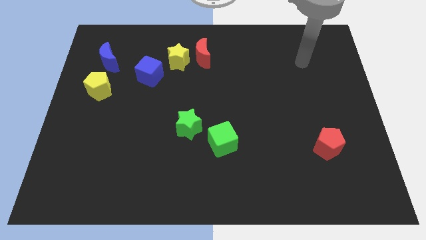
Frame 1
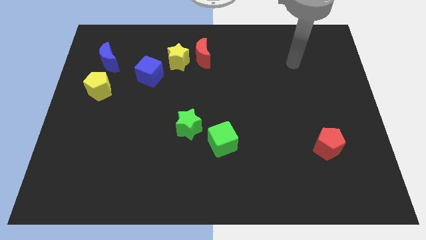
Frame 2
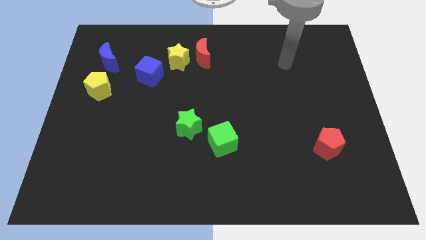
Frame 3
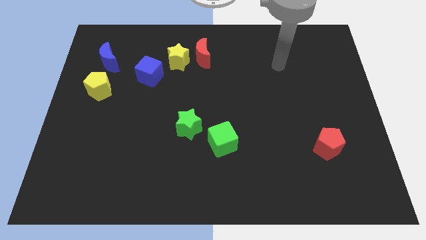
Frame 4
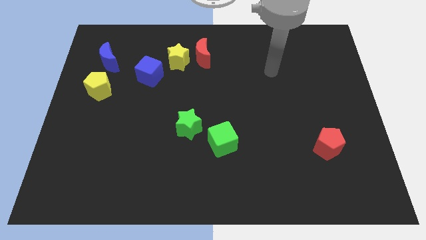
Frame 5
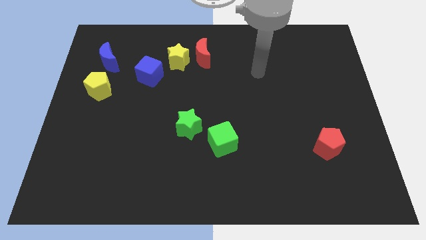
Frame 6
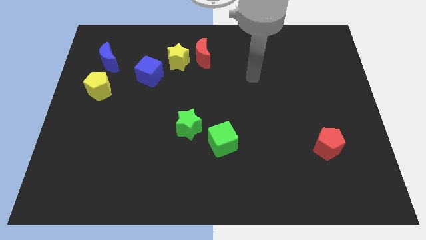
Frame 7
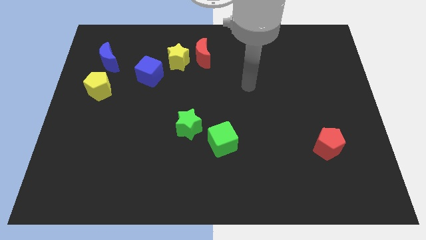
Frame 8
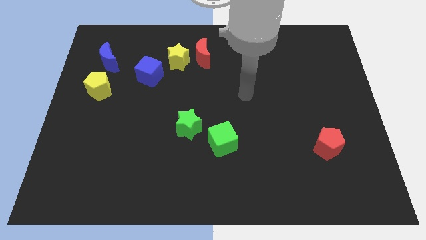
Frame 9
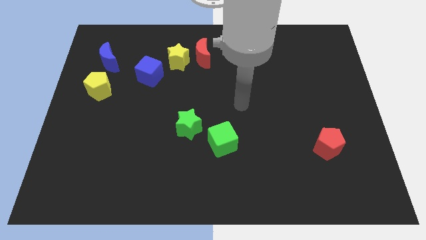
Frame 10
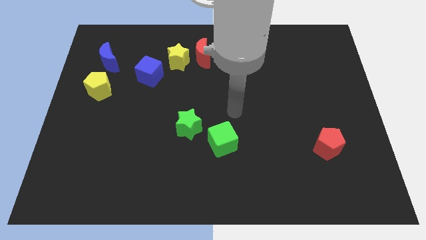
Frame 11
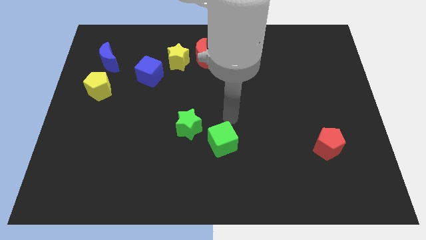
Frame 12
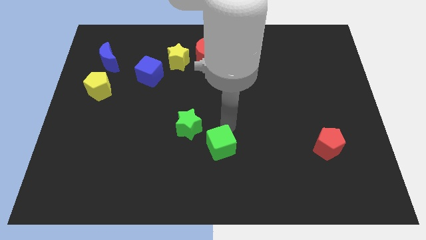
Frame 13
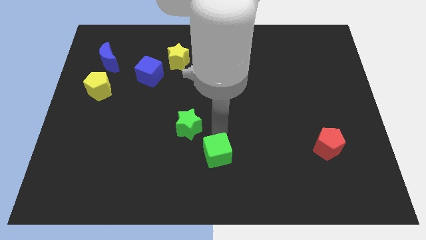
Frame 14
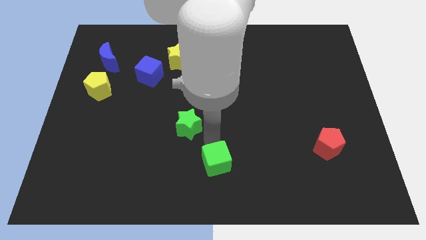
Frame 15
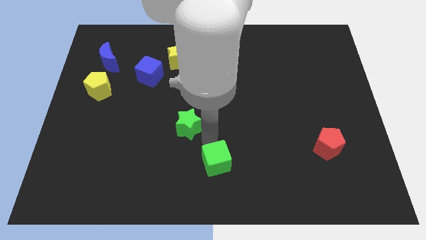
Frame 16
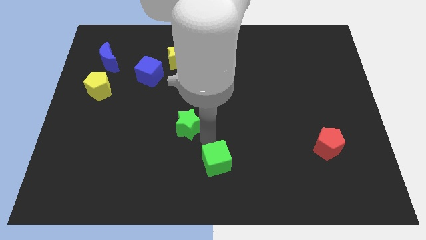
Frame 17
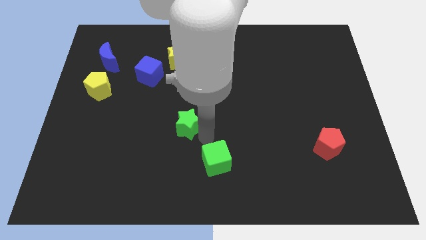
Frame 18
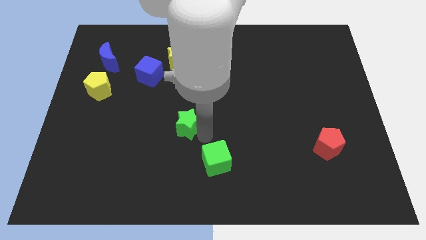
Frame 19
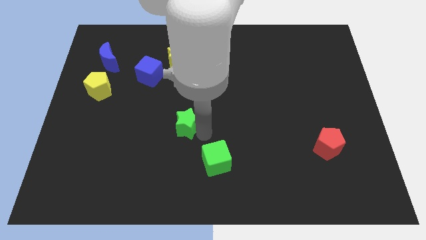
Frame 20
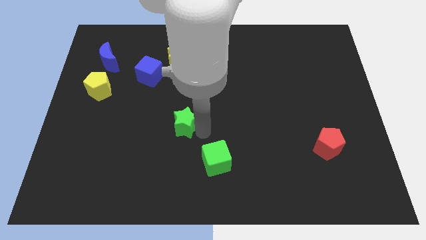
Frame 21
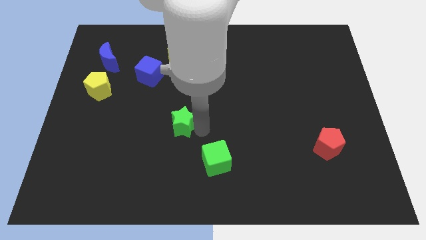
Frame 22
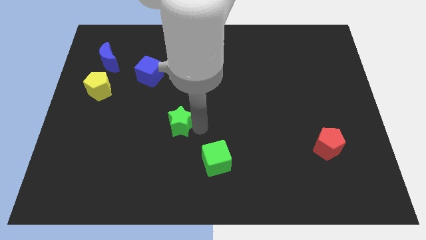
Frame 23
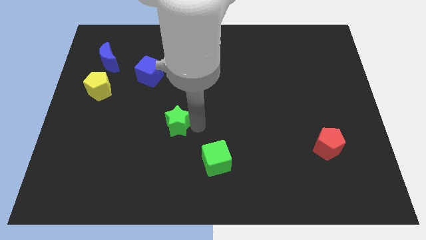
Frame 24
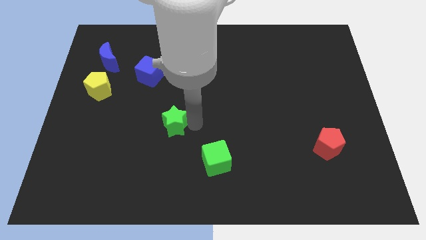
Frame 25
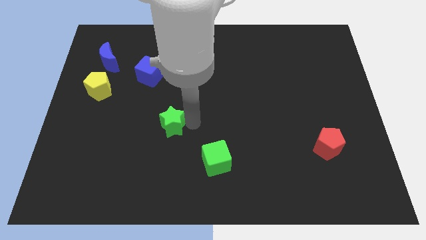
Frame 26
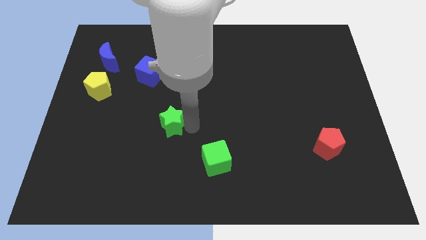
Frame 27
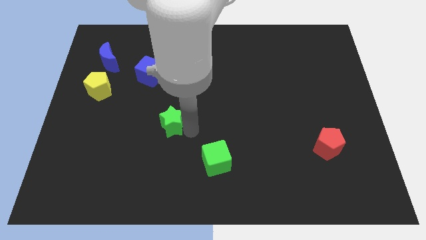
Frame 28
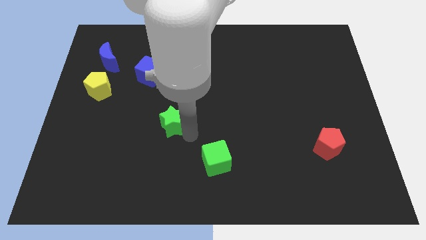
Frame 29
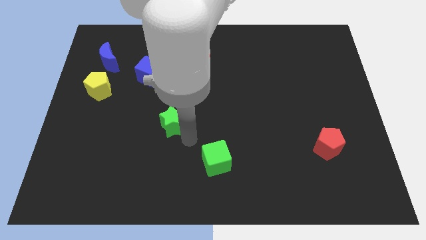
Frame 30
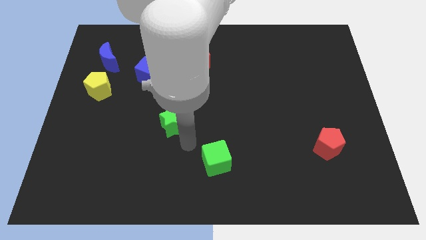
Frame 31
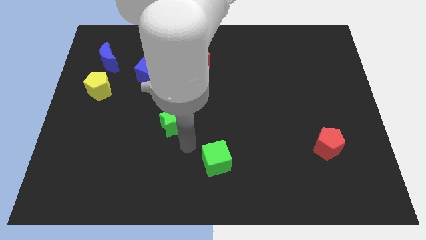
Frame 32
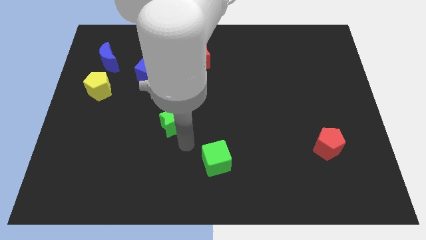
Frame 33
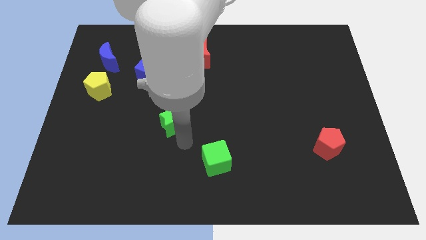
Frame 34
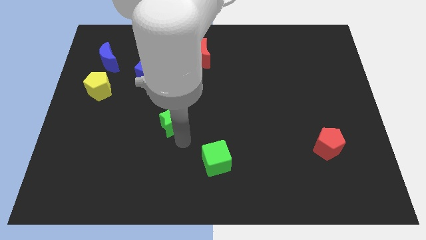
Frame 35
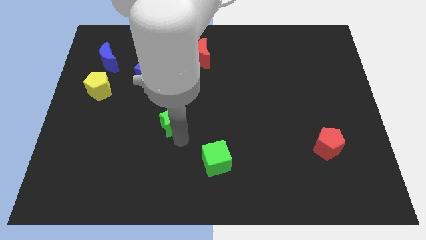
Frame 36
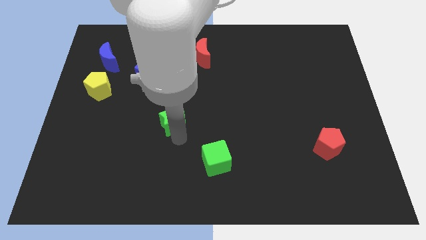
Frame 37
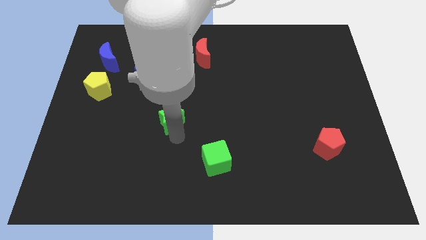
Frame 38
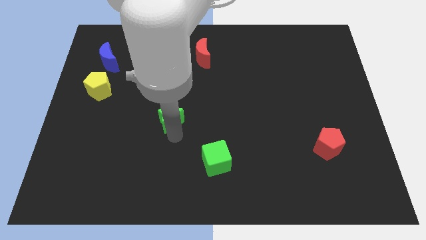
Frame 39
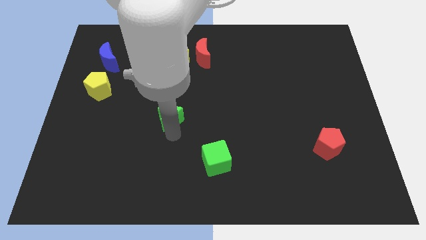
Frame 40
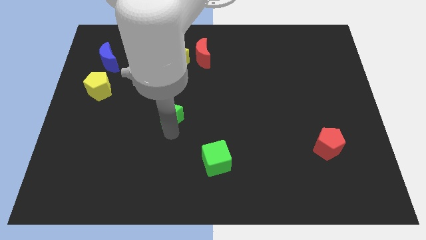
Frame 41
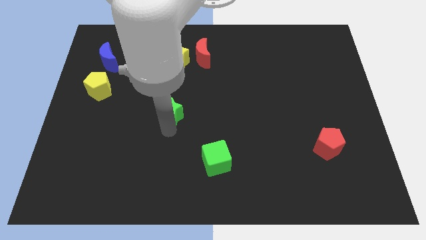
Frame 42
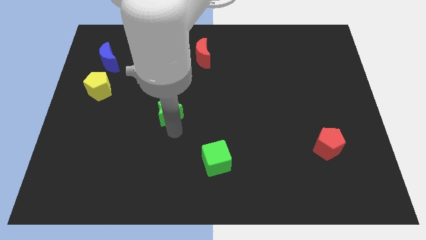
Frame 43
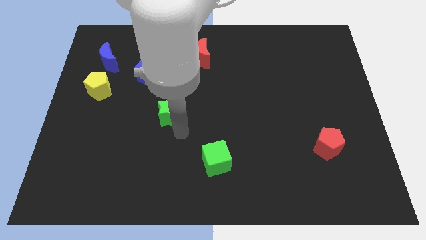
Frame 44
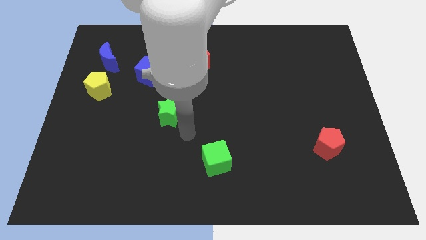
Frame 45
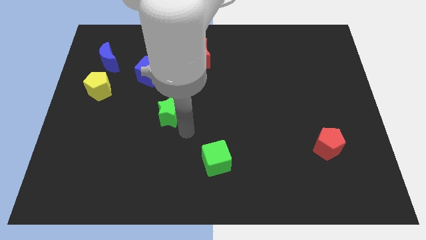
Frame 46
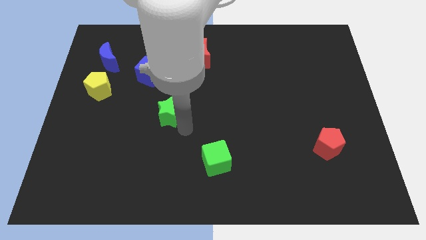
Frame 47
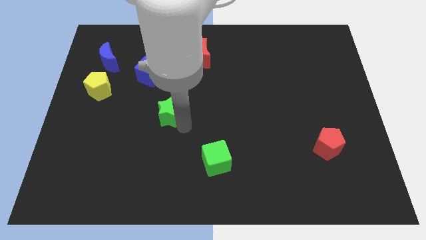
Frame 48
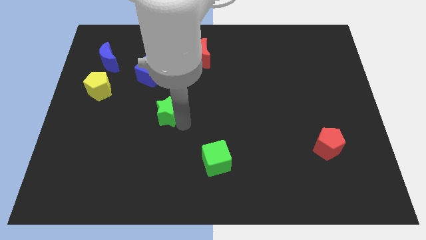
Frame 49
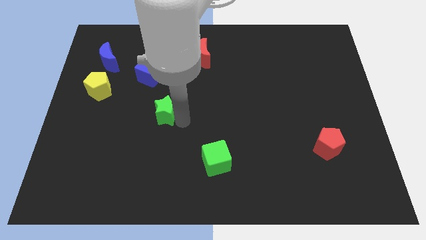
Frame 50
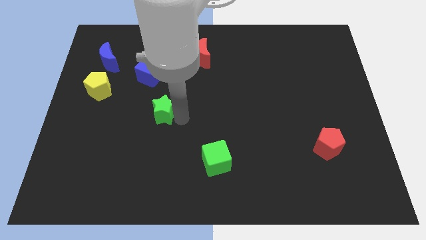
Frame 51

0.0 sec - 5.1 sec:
slide the green star upwards and then to the left a bit

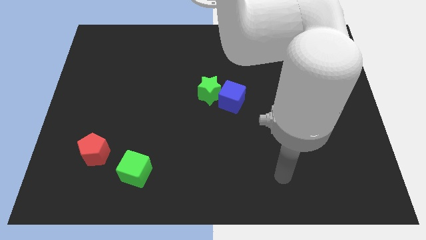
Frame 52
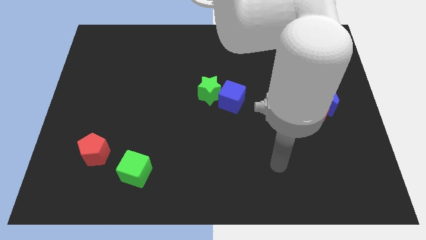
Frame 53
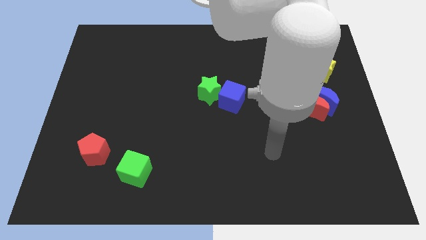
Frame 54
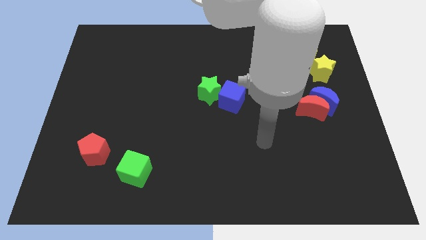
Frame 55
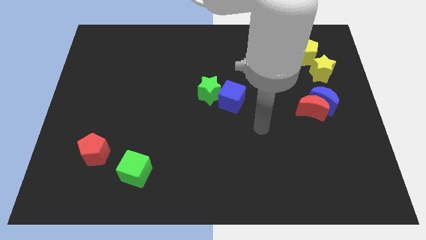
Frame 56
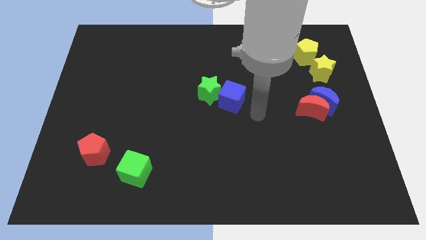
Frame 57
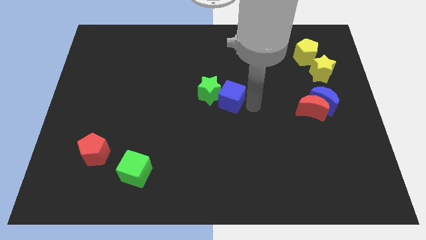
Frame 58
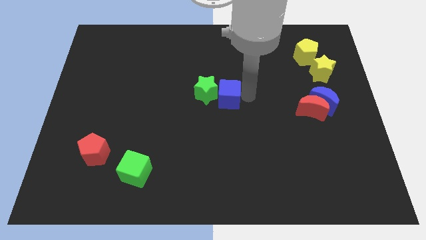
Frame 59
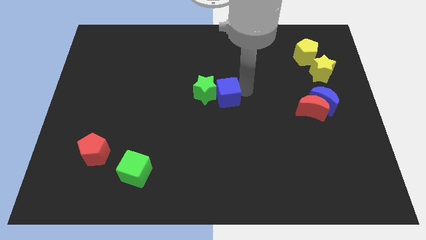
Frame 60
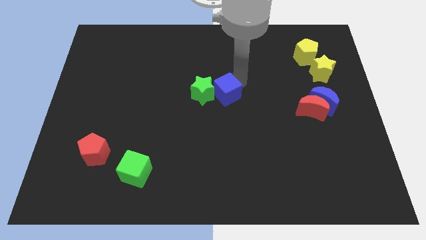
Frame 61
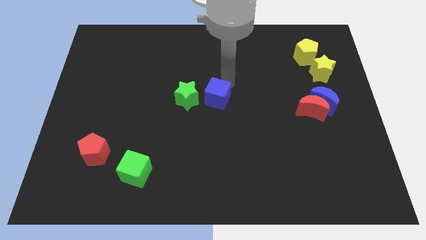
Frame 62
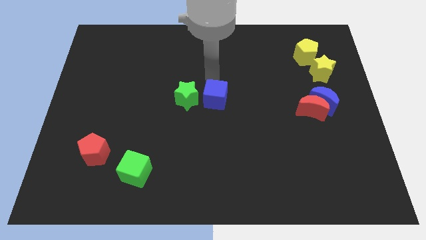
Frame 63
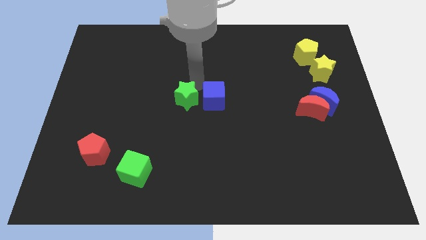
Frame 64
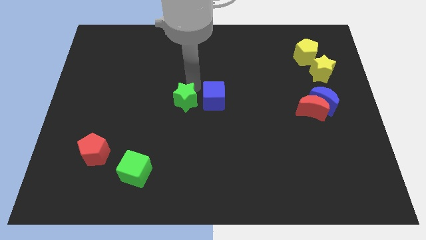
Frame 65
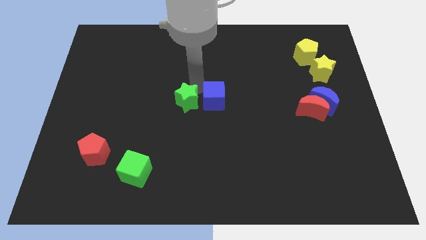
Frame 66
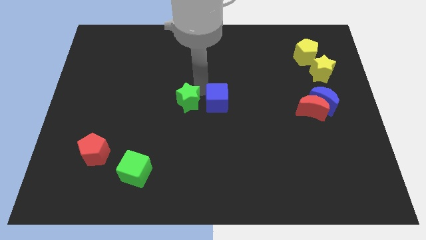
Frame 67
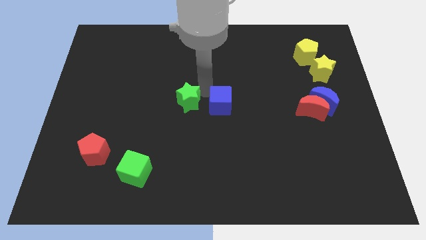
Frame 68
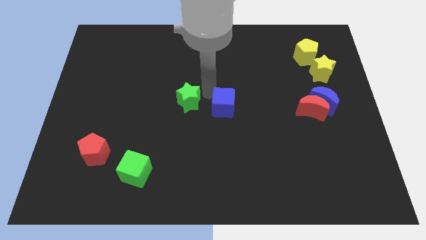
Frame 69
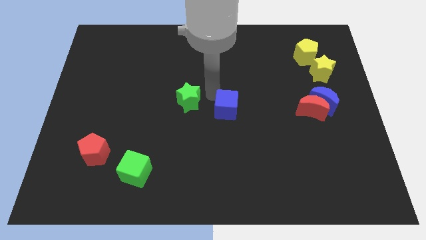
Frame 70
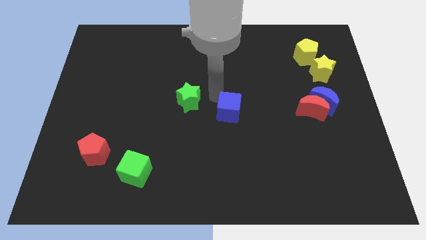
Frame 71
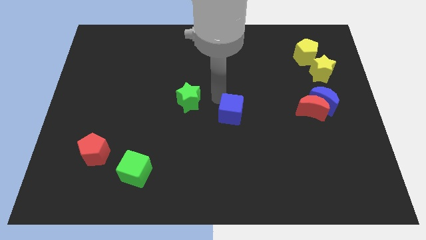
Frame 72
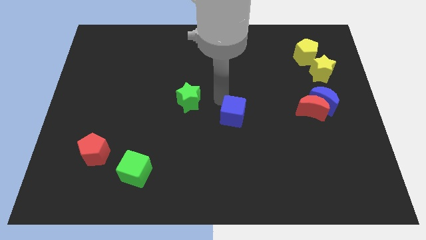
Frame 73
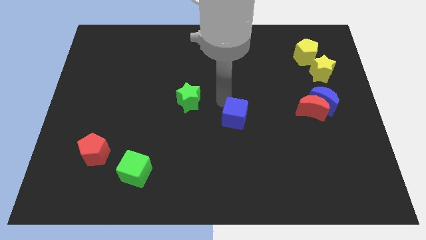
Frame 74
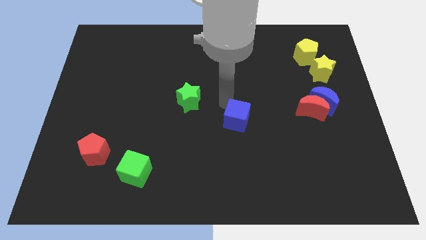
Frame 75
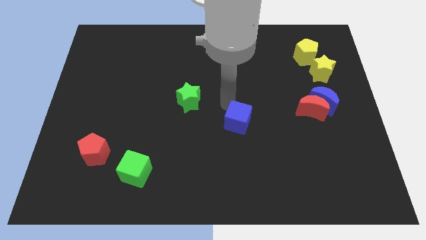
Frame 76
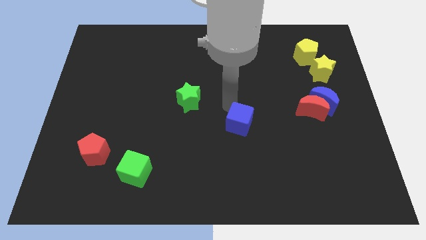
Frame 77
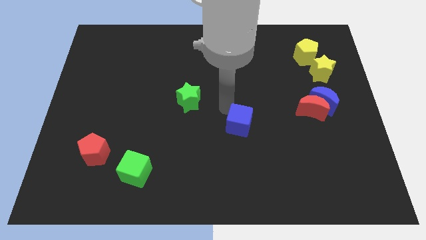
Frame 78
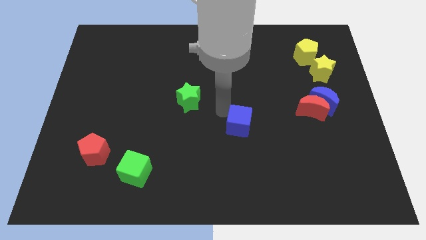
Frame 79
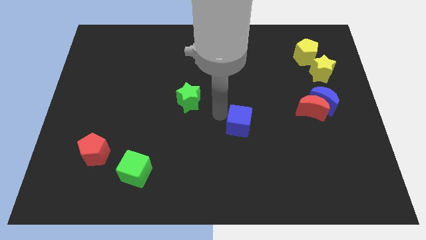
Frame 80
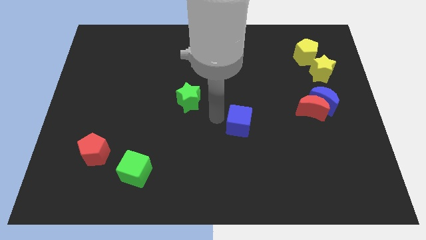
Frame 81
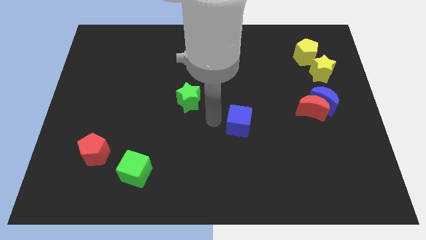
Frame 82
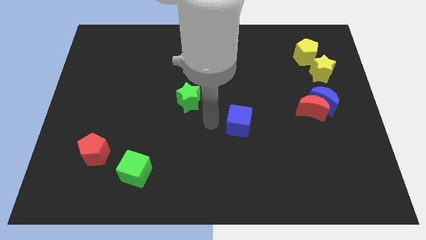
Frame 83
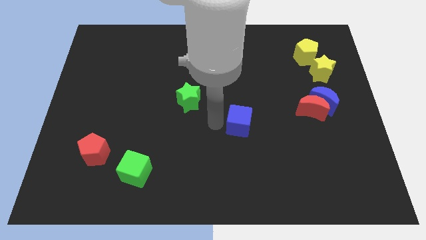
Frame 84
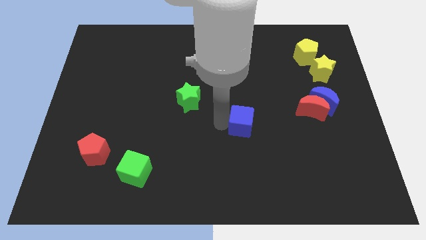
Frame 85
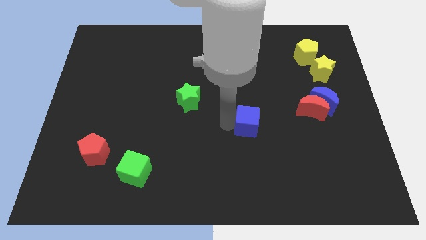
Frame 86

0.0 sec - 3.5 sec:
push the blue cube slightly diagonally downwards and to the right
